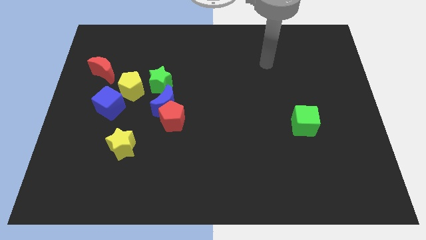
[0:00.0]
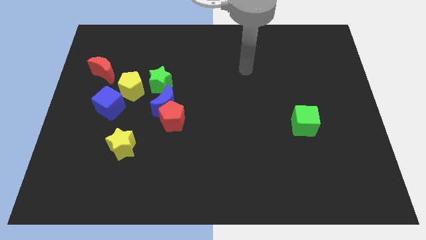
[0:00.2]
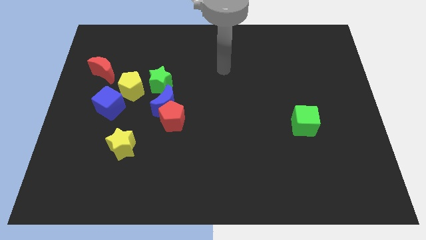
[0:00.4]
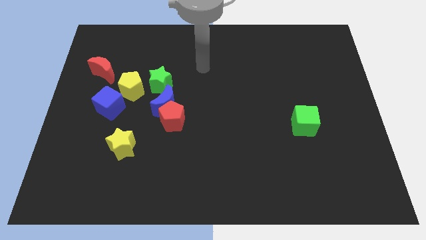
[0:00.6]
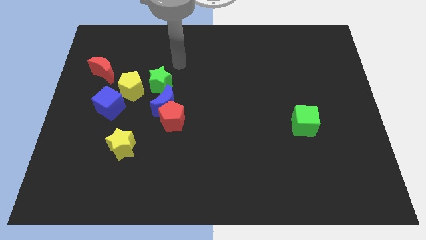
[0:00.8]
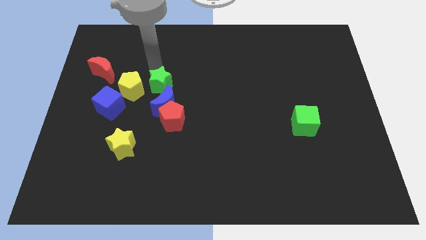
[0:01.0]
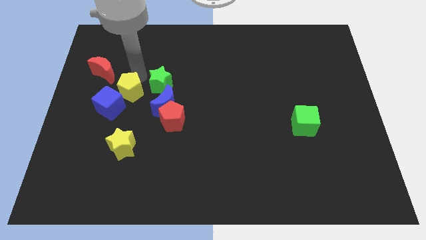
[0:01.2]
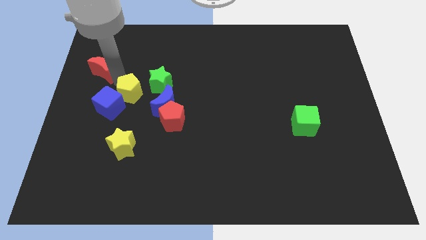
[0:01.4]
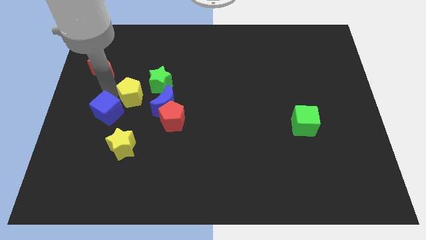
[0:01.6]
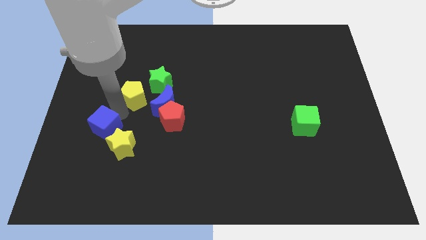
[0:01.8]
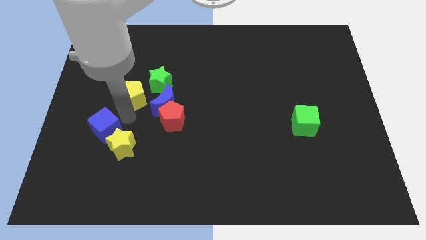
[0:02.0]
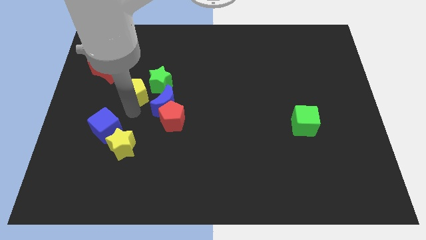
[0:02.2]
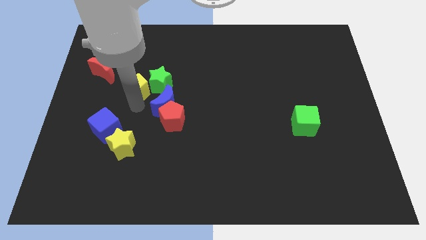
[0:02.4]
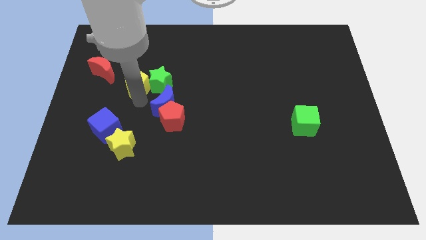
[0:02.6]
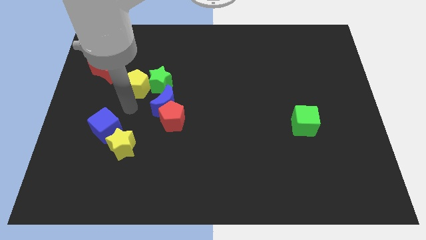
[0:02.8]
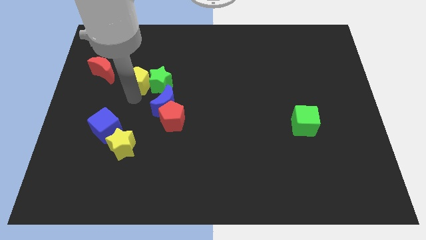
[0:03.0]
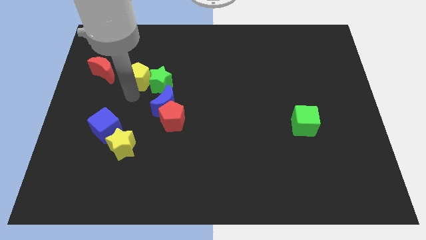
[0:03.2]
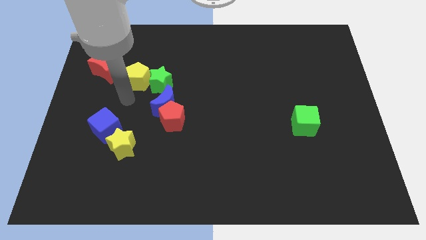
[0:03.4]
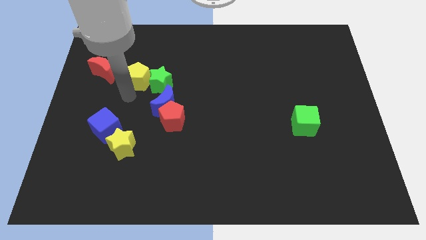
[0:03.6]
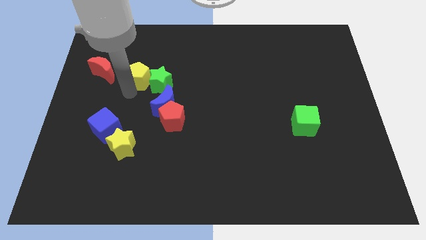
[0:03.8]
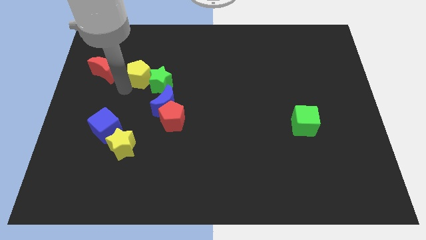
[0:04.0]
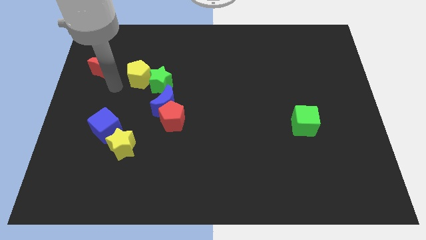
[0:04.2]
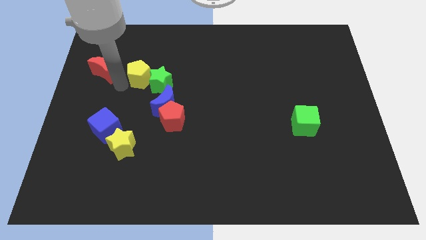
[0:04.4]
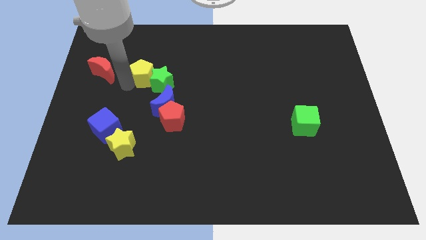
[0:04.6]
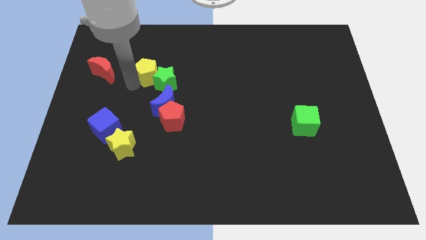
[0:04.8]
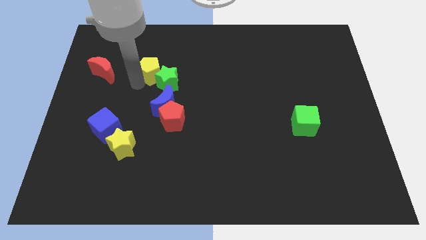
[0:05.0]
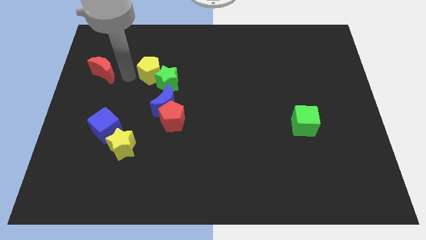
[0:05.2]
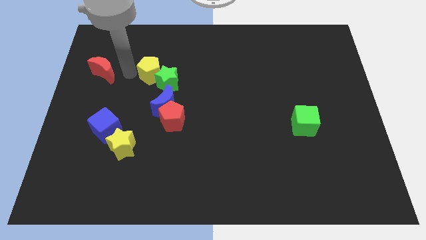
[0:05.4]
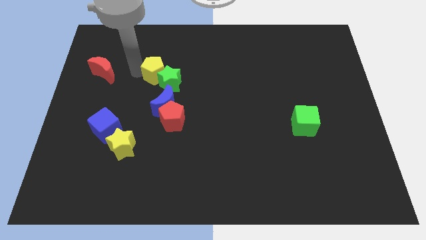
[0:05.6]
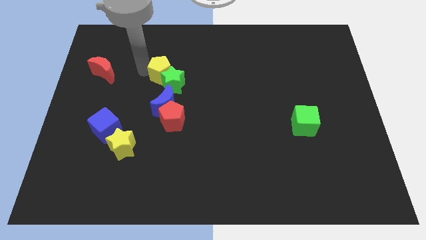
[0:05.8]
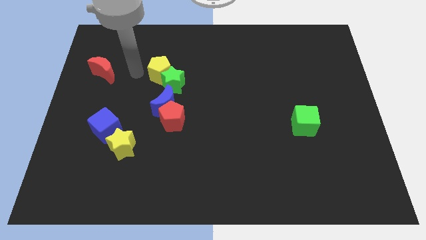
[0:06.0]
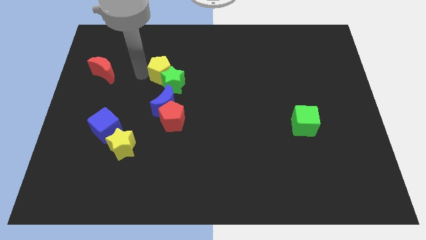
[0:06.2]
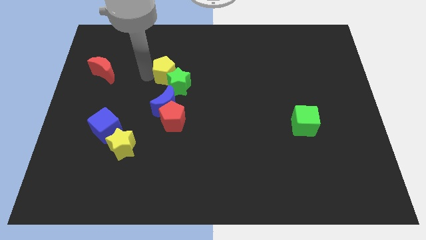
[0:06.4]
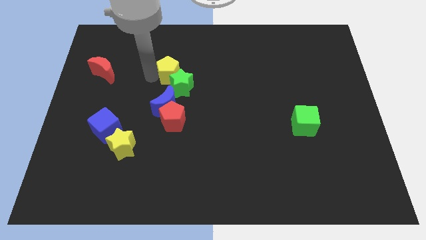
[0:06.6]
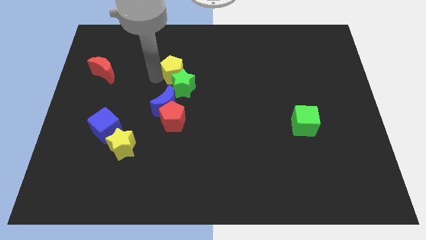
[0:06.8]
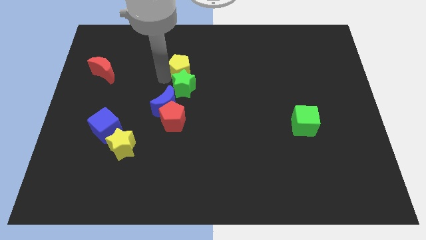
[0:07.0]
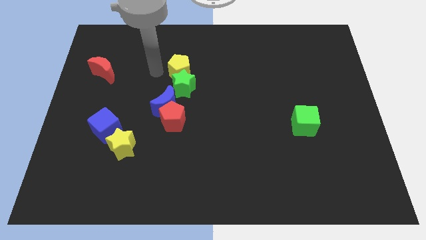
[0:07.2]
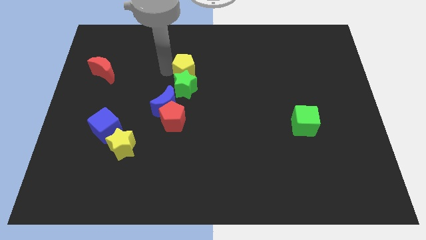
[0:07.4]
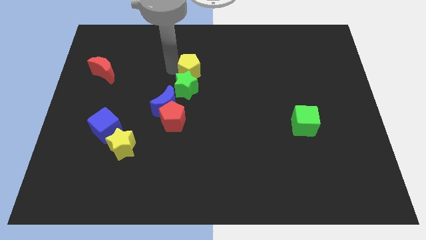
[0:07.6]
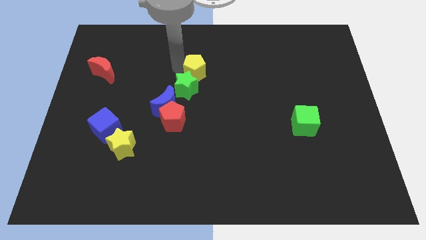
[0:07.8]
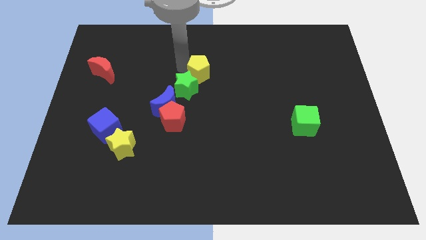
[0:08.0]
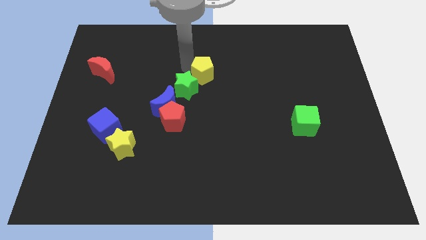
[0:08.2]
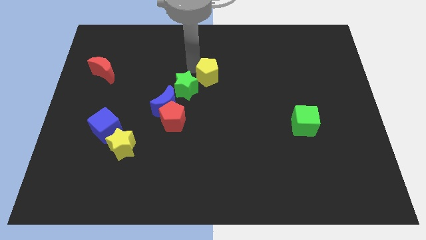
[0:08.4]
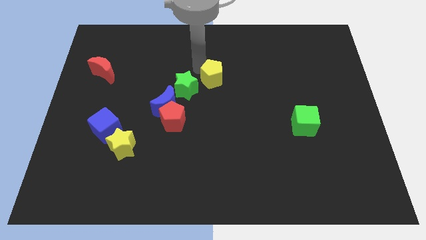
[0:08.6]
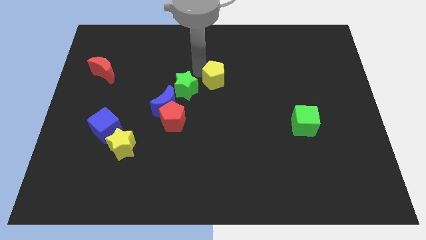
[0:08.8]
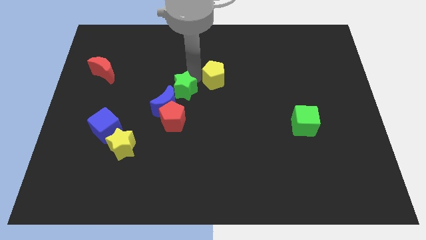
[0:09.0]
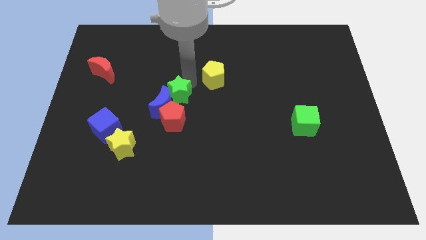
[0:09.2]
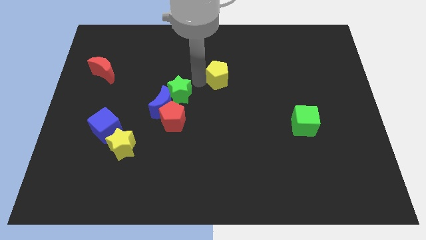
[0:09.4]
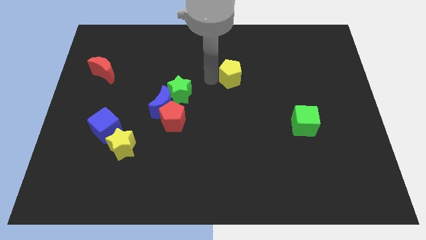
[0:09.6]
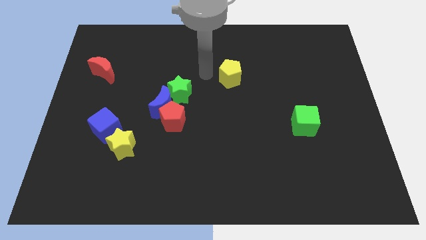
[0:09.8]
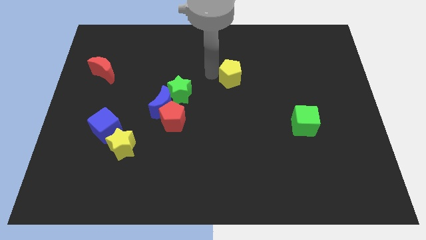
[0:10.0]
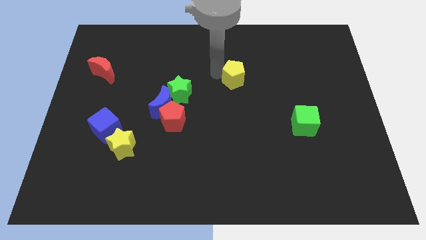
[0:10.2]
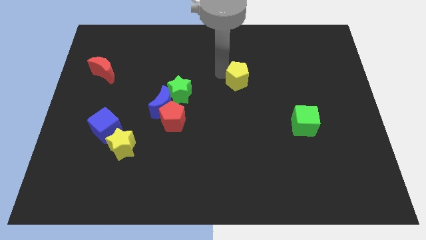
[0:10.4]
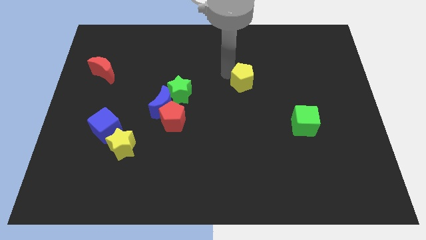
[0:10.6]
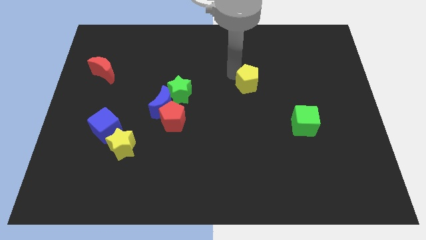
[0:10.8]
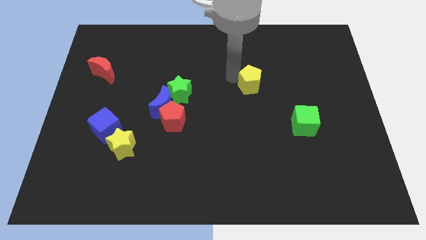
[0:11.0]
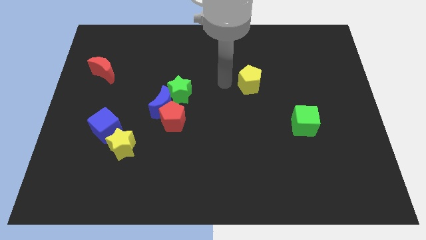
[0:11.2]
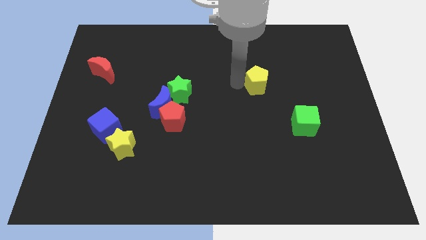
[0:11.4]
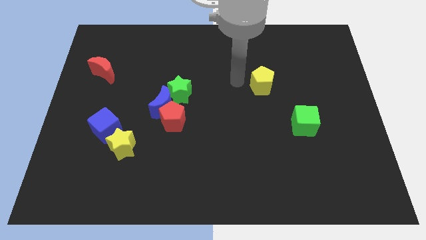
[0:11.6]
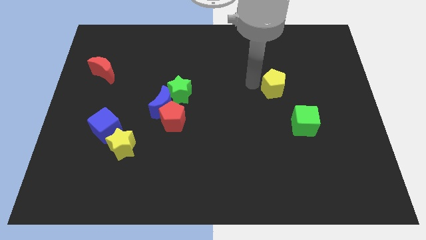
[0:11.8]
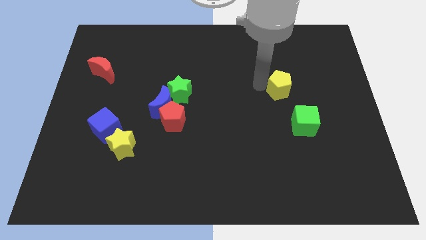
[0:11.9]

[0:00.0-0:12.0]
put the yellow pentagon above the green cube

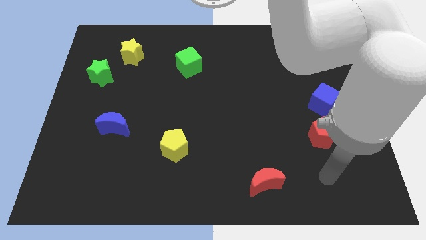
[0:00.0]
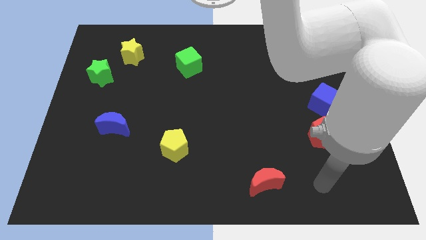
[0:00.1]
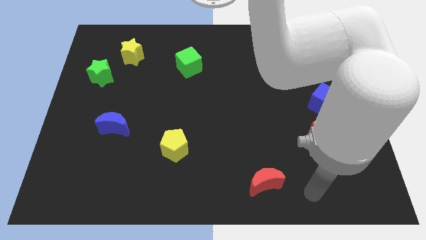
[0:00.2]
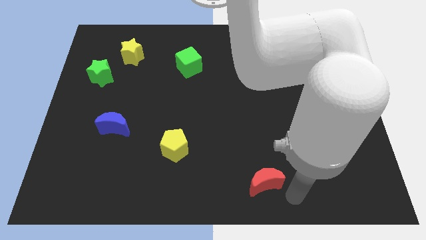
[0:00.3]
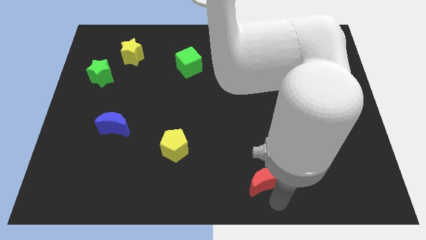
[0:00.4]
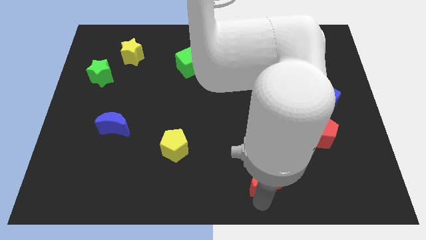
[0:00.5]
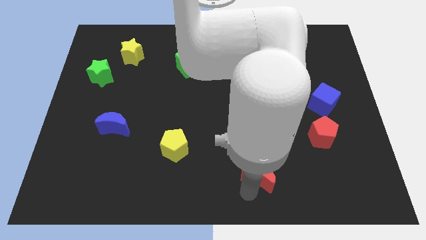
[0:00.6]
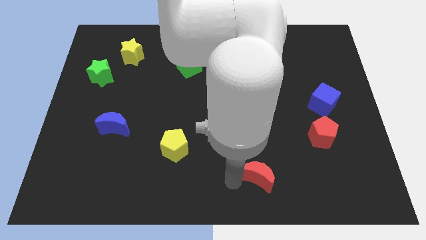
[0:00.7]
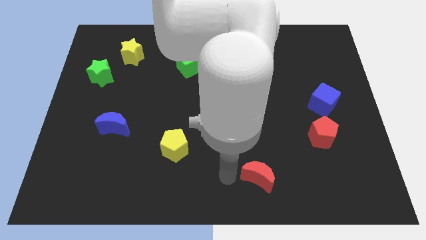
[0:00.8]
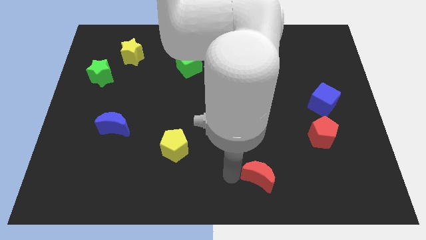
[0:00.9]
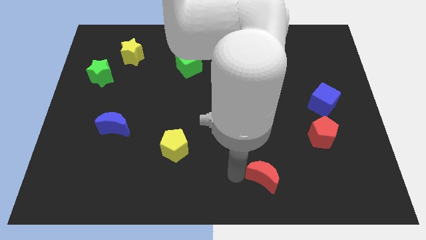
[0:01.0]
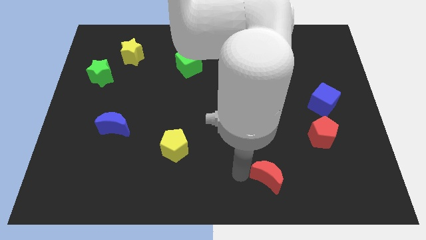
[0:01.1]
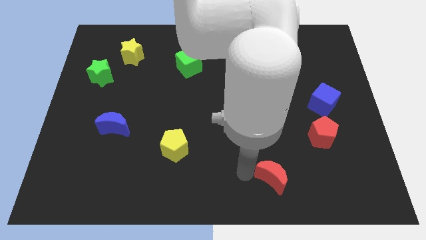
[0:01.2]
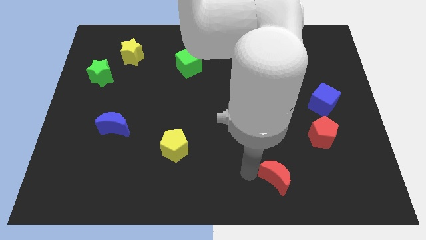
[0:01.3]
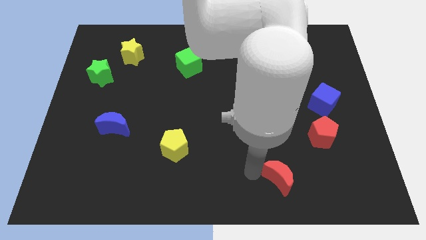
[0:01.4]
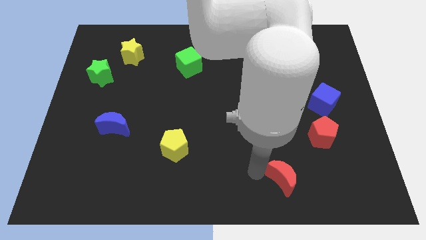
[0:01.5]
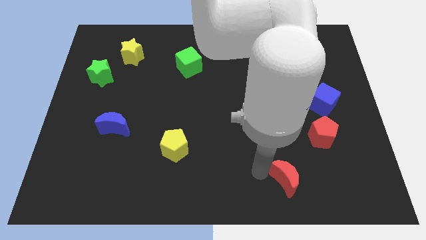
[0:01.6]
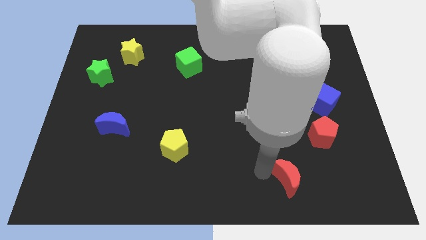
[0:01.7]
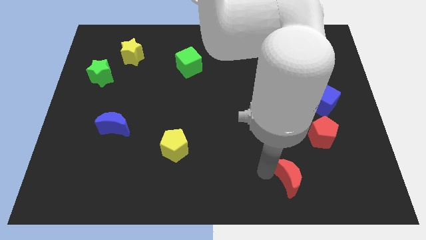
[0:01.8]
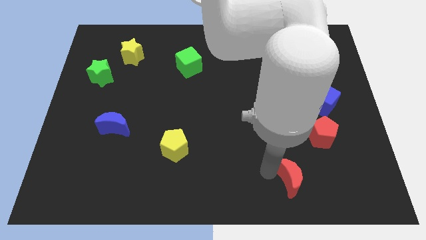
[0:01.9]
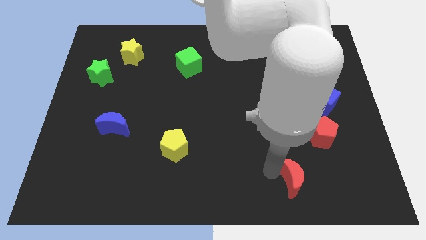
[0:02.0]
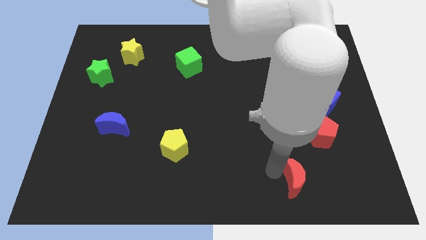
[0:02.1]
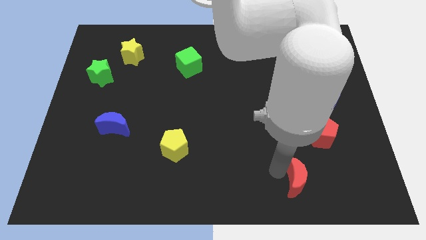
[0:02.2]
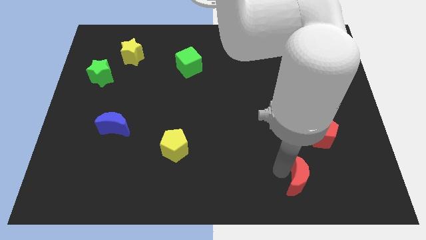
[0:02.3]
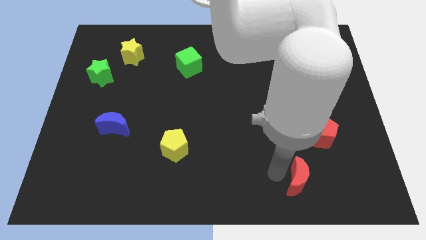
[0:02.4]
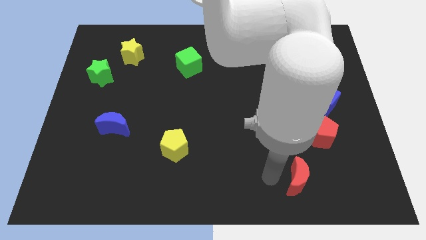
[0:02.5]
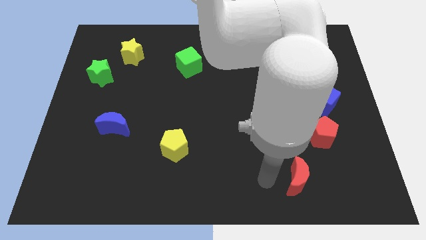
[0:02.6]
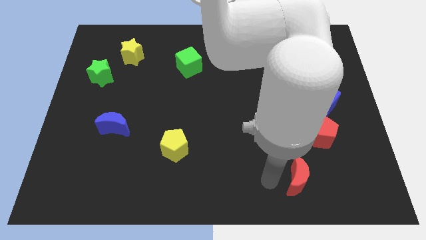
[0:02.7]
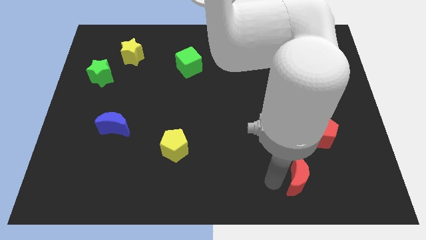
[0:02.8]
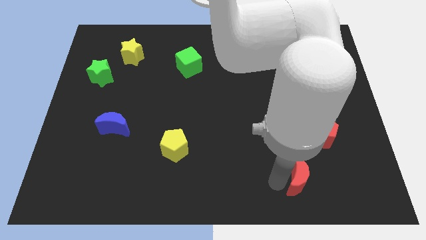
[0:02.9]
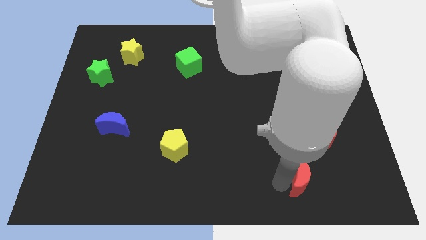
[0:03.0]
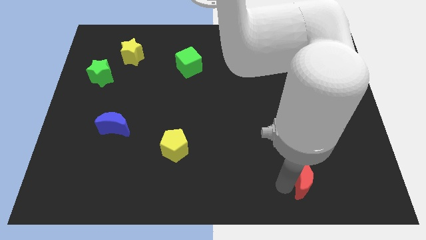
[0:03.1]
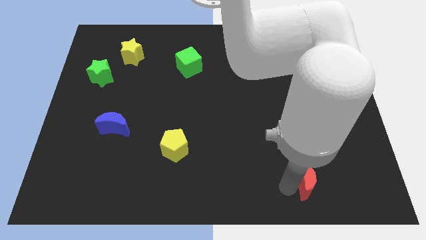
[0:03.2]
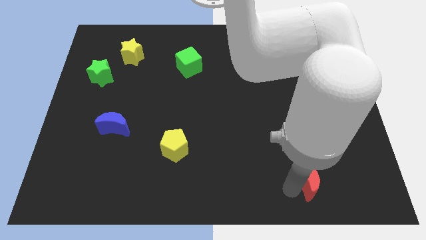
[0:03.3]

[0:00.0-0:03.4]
slide the red moon below the red pentagon
